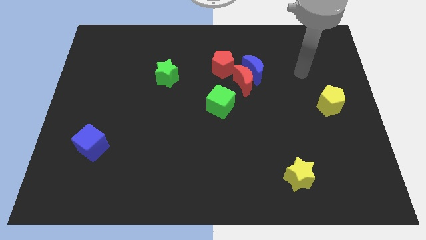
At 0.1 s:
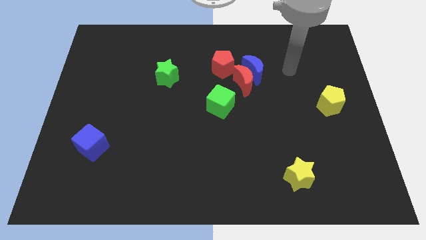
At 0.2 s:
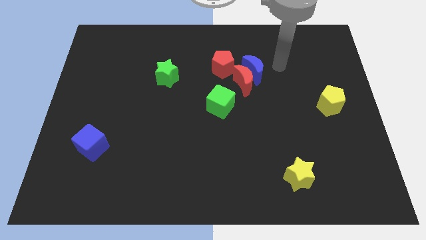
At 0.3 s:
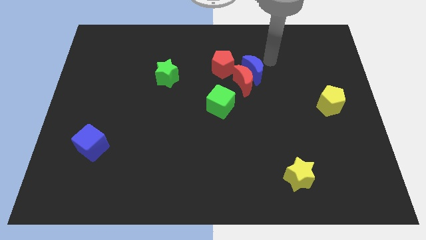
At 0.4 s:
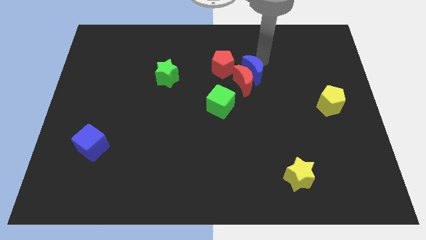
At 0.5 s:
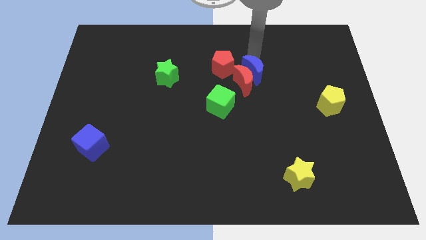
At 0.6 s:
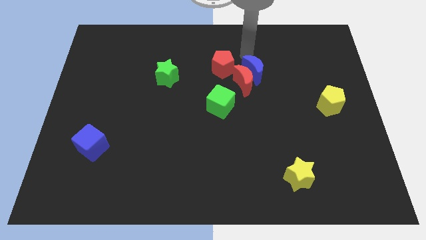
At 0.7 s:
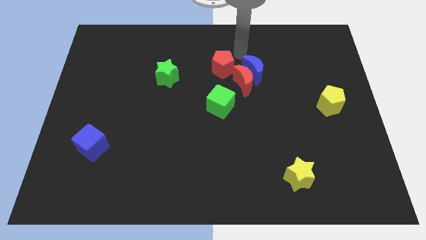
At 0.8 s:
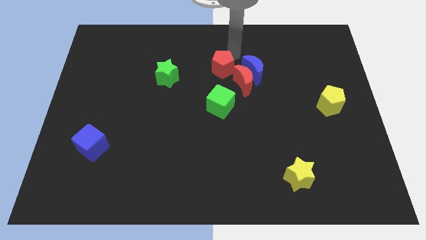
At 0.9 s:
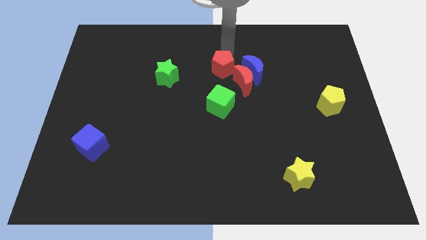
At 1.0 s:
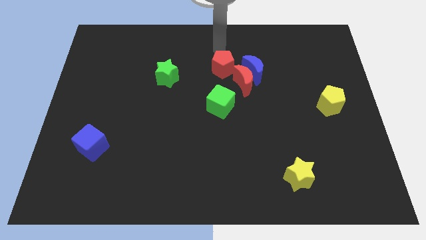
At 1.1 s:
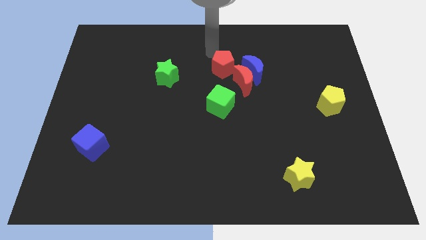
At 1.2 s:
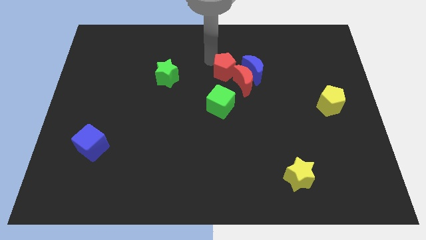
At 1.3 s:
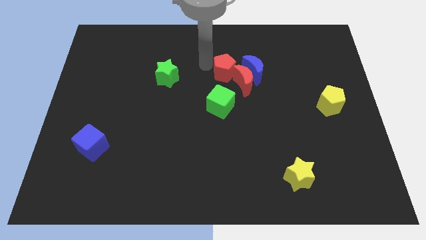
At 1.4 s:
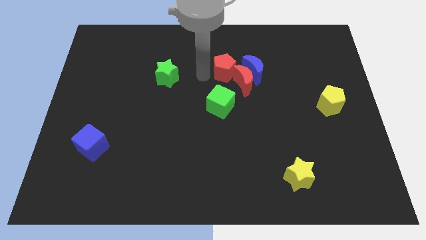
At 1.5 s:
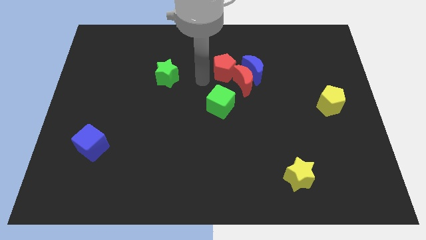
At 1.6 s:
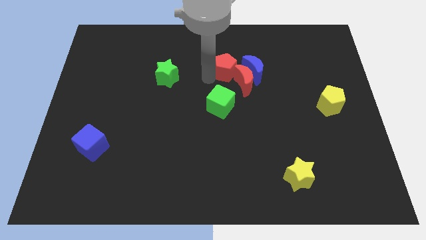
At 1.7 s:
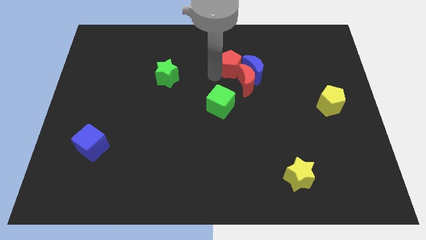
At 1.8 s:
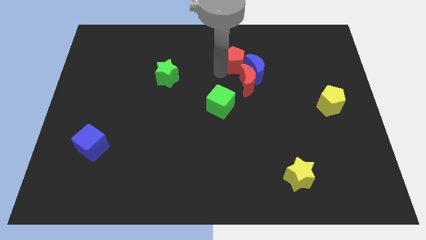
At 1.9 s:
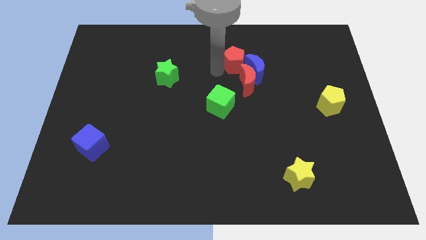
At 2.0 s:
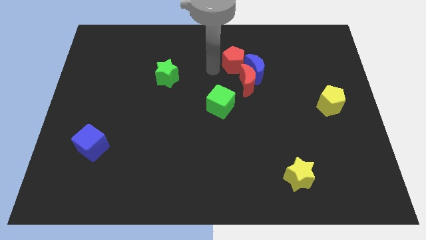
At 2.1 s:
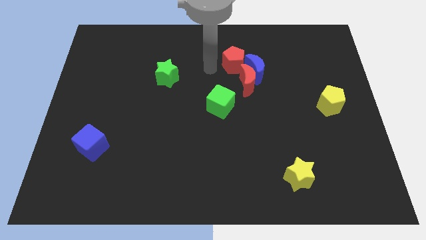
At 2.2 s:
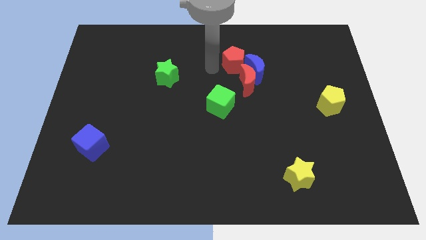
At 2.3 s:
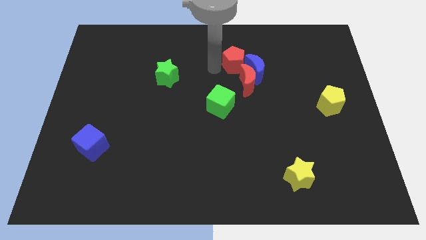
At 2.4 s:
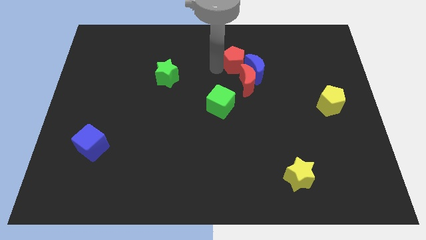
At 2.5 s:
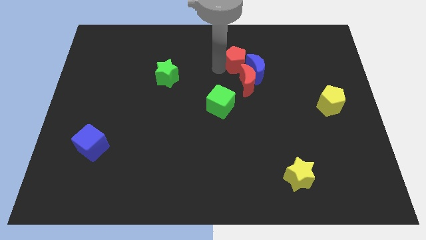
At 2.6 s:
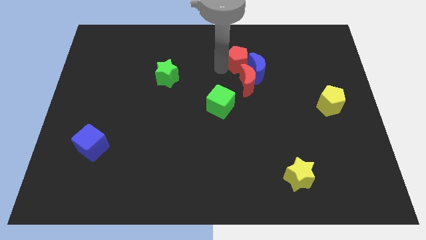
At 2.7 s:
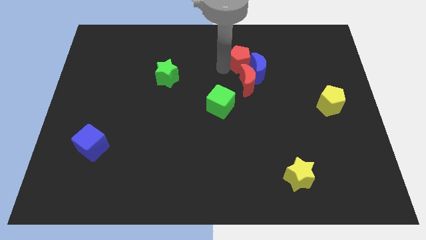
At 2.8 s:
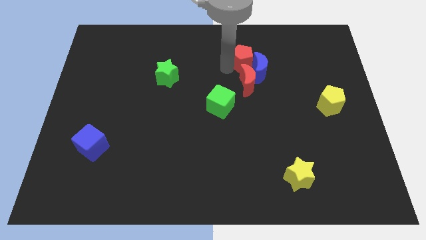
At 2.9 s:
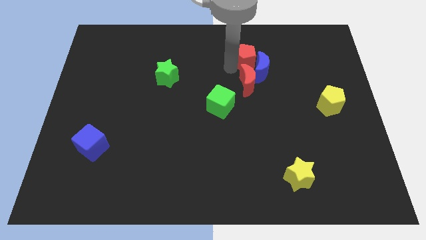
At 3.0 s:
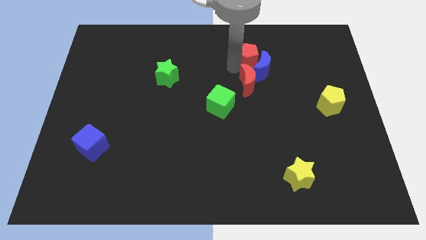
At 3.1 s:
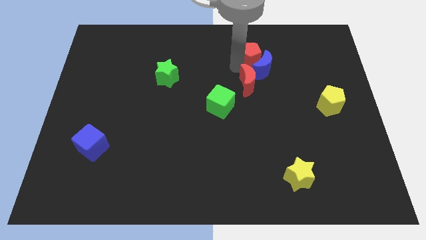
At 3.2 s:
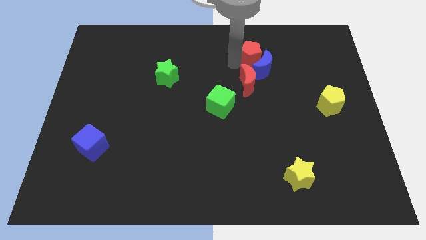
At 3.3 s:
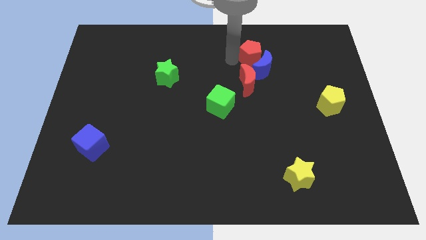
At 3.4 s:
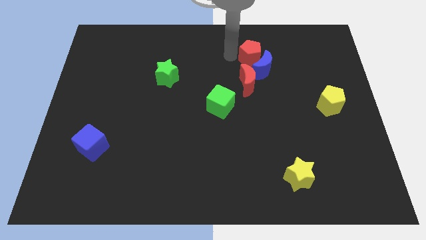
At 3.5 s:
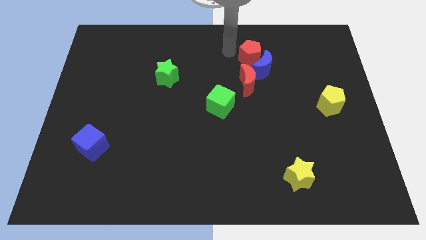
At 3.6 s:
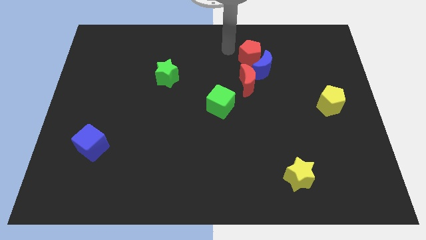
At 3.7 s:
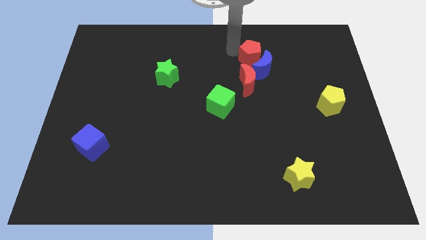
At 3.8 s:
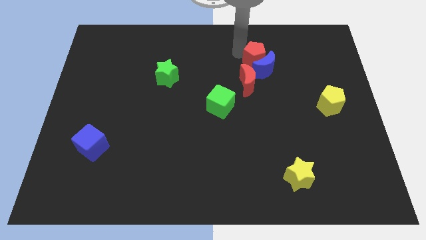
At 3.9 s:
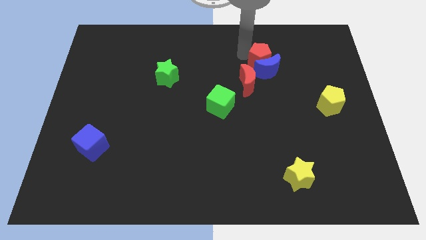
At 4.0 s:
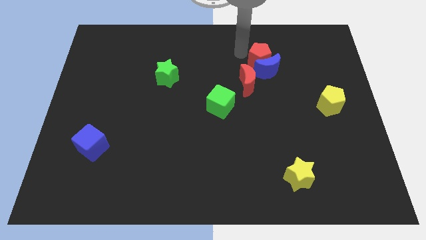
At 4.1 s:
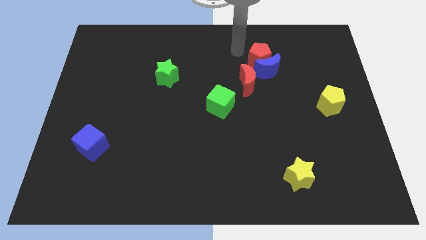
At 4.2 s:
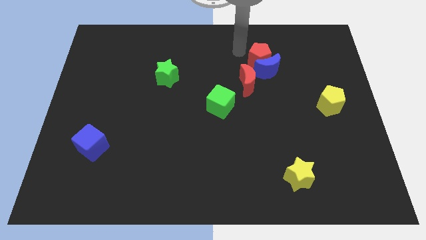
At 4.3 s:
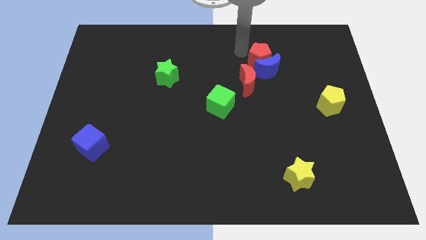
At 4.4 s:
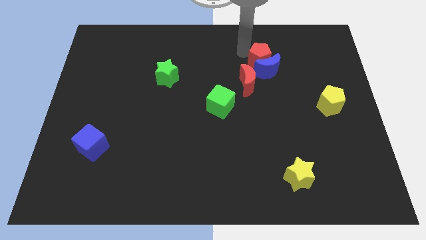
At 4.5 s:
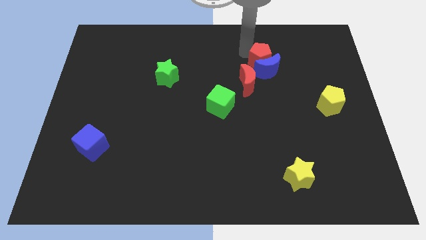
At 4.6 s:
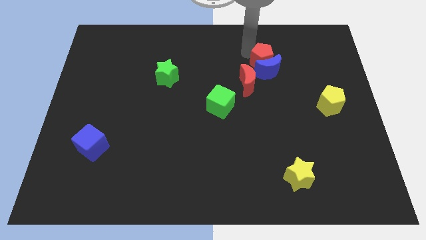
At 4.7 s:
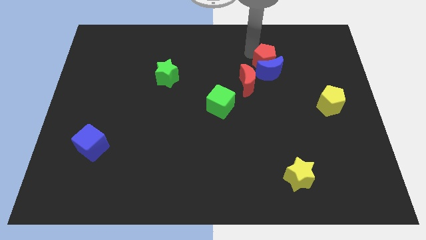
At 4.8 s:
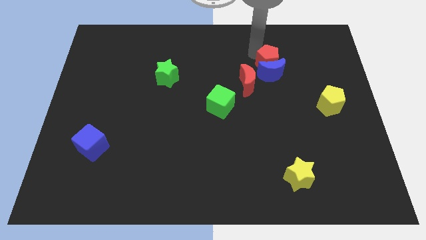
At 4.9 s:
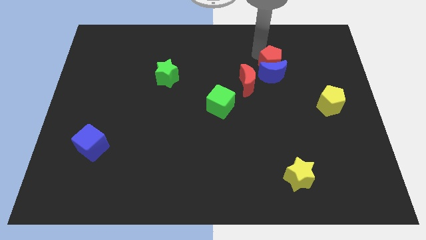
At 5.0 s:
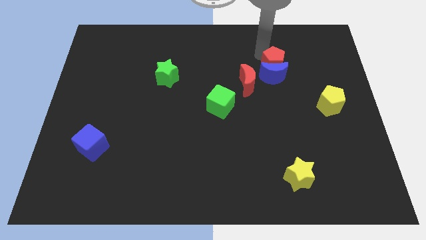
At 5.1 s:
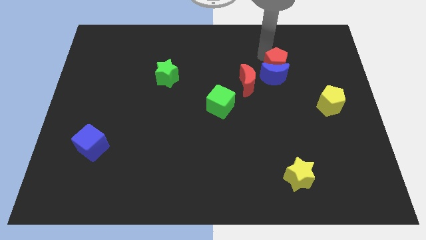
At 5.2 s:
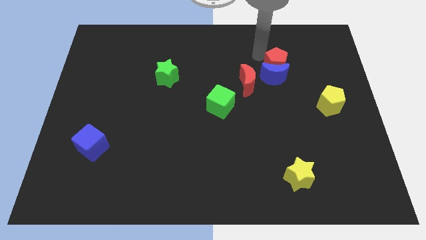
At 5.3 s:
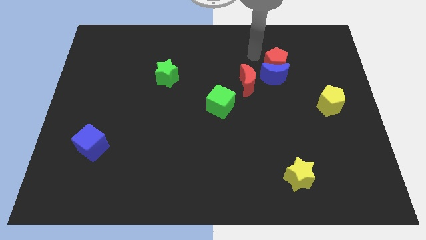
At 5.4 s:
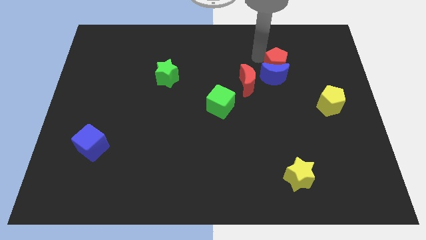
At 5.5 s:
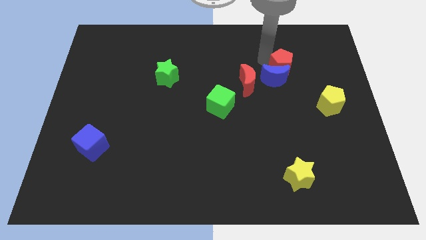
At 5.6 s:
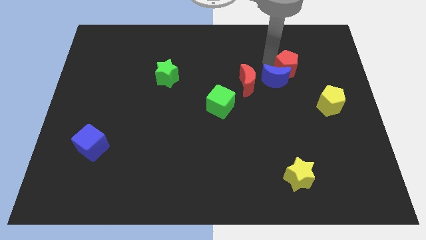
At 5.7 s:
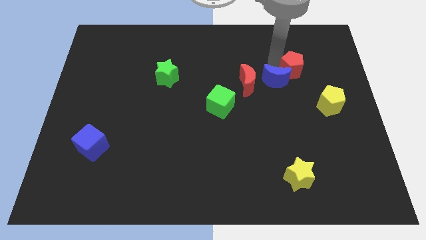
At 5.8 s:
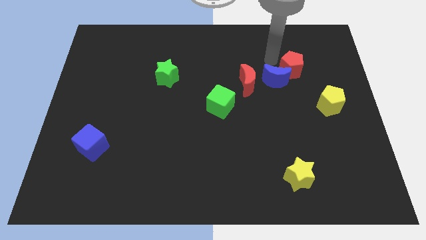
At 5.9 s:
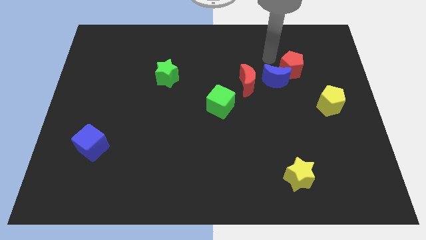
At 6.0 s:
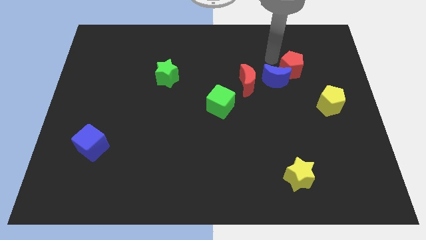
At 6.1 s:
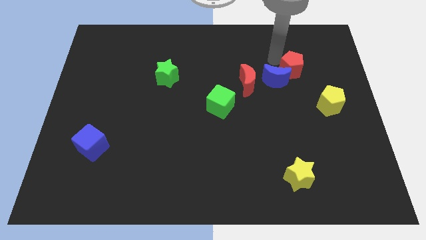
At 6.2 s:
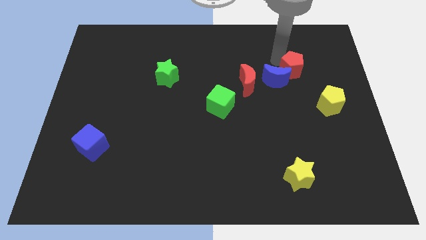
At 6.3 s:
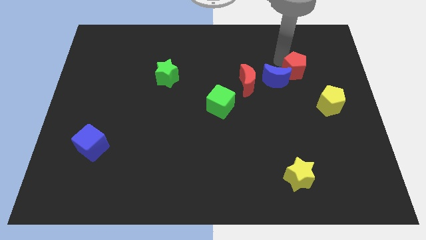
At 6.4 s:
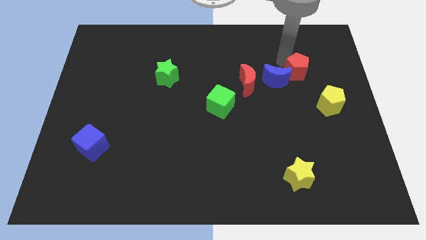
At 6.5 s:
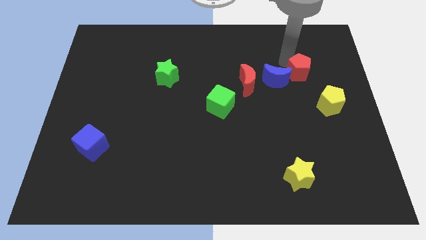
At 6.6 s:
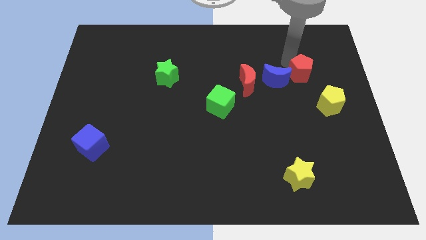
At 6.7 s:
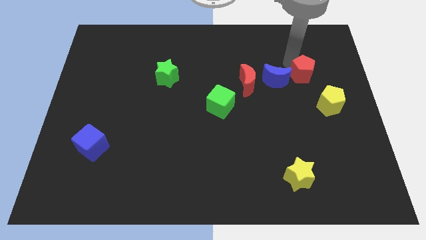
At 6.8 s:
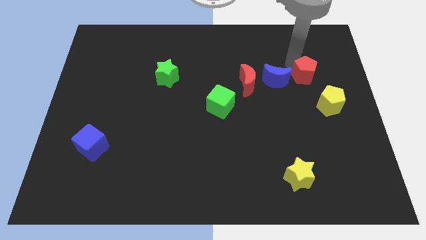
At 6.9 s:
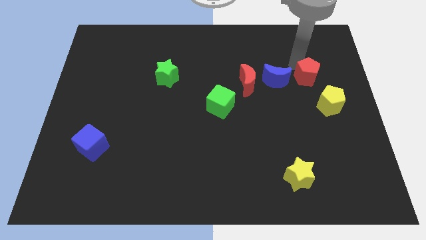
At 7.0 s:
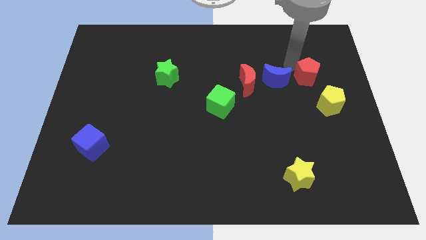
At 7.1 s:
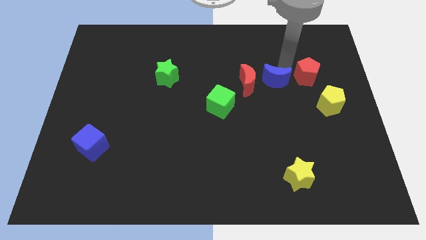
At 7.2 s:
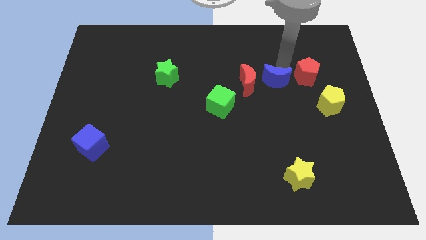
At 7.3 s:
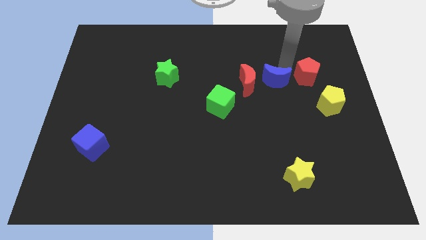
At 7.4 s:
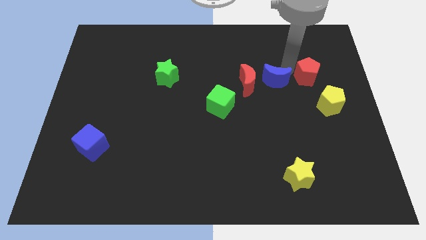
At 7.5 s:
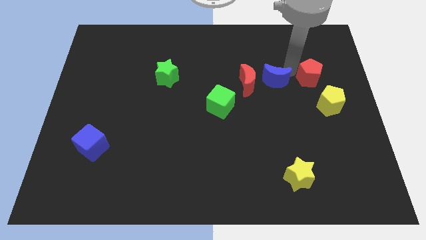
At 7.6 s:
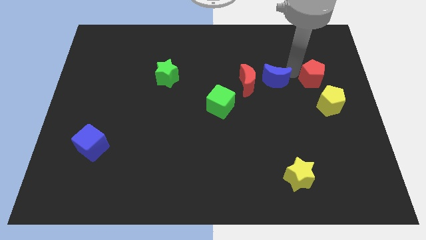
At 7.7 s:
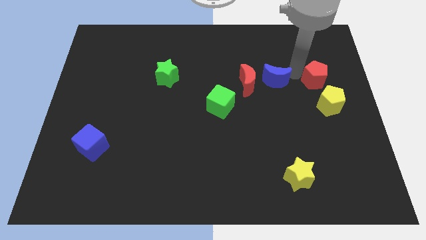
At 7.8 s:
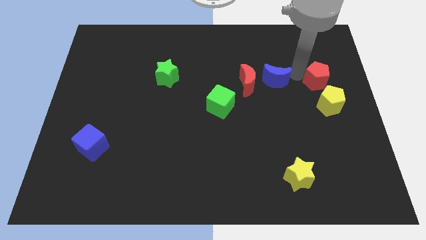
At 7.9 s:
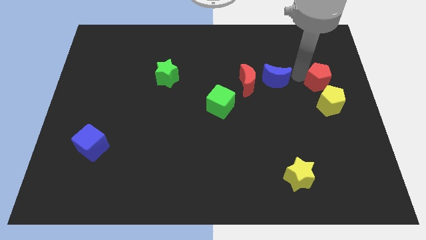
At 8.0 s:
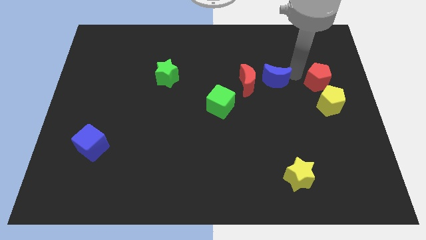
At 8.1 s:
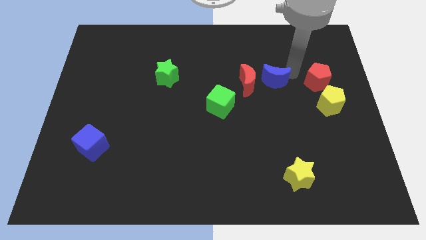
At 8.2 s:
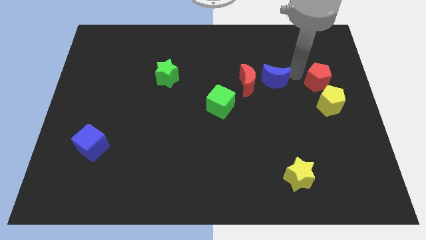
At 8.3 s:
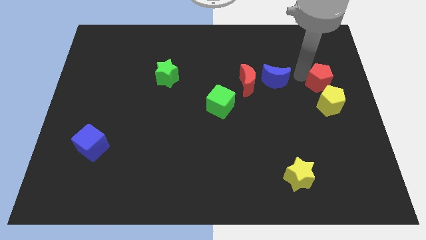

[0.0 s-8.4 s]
push the red pentagon to the right side of the board
